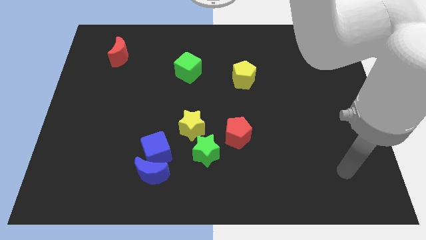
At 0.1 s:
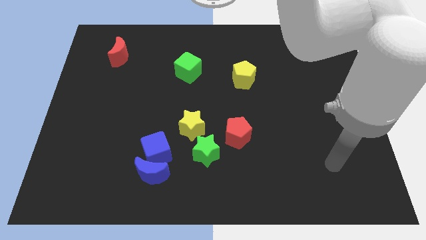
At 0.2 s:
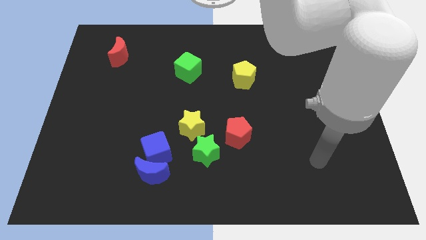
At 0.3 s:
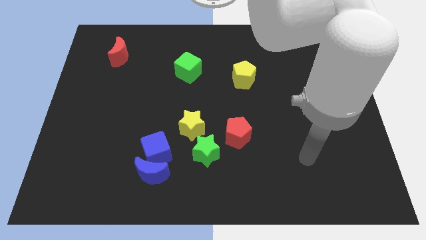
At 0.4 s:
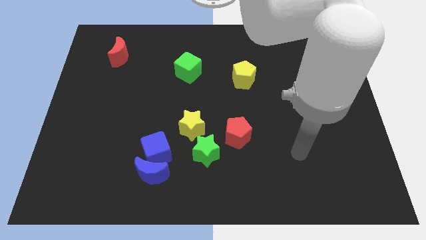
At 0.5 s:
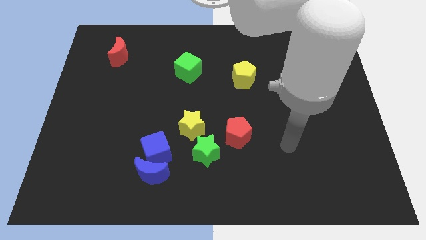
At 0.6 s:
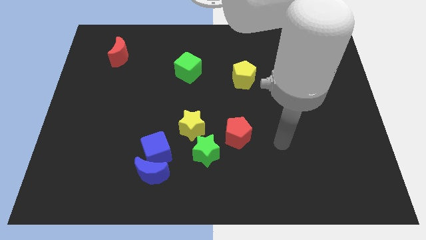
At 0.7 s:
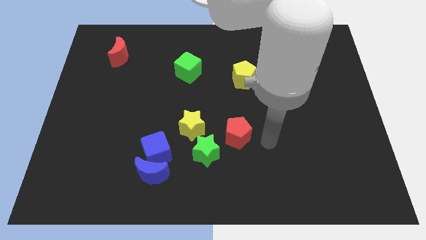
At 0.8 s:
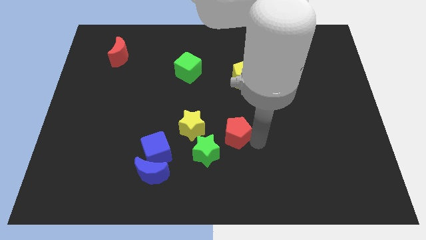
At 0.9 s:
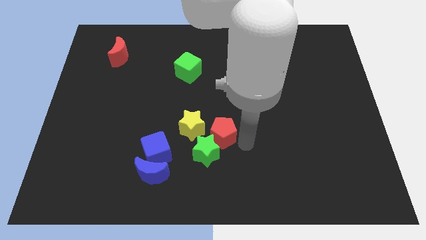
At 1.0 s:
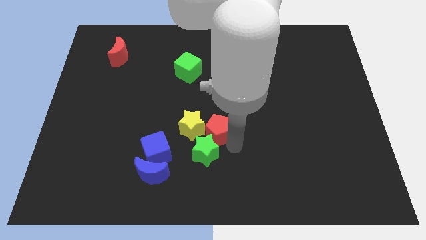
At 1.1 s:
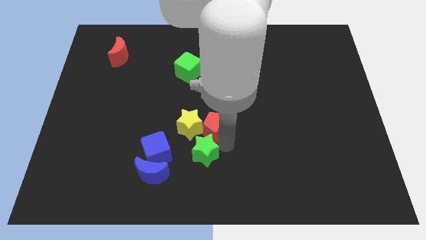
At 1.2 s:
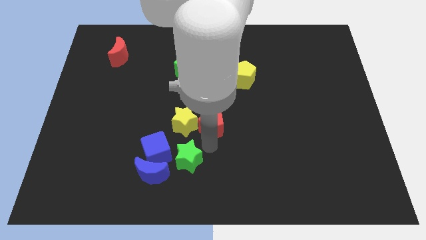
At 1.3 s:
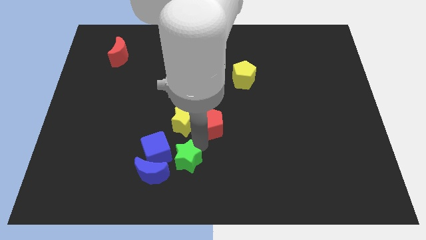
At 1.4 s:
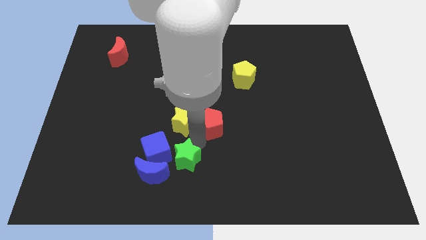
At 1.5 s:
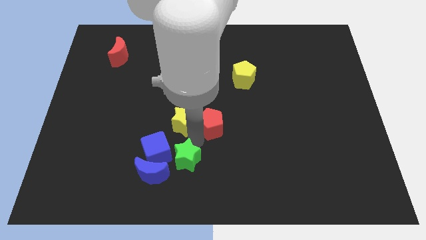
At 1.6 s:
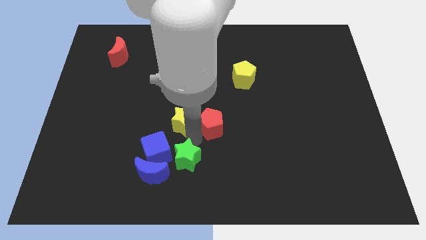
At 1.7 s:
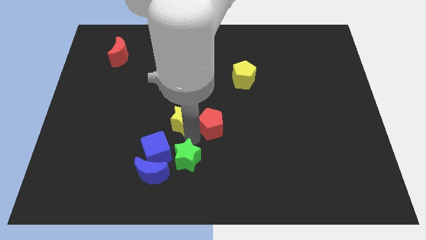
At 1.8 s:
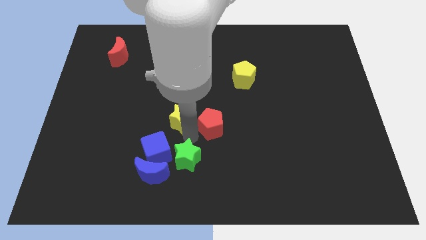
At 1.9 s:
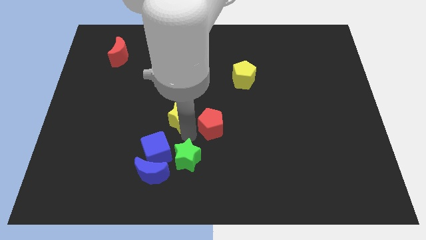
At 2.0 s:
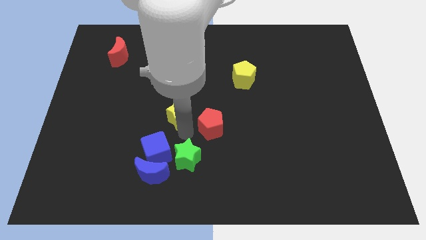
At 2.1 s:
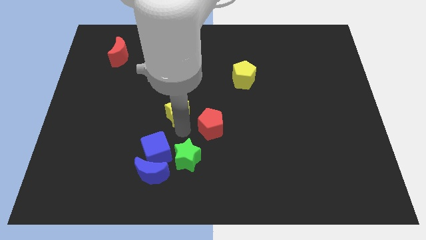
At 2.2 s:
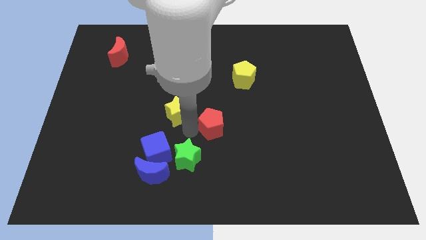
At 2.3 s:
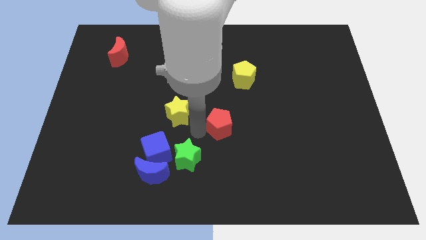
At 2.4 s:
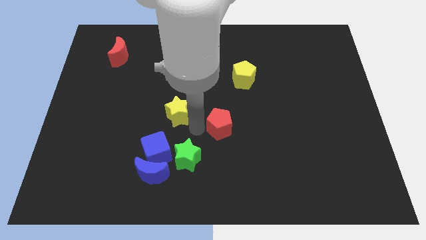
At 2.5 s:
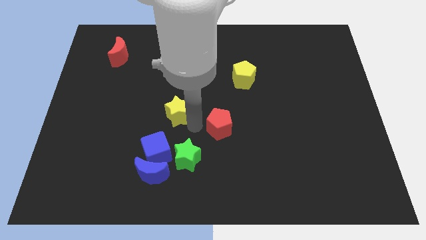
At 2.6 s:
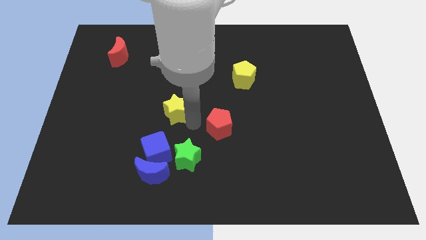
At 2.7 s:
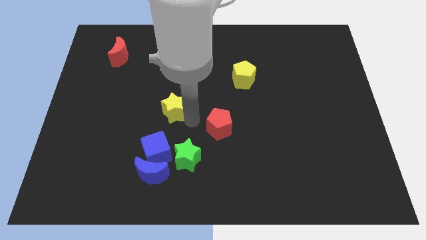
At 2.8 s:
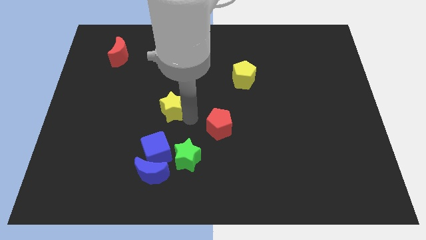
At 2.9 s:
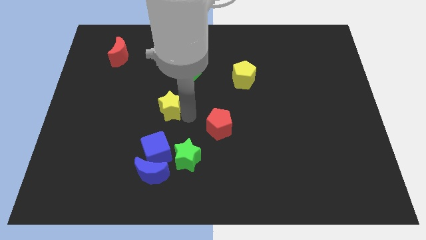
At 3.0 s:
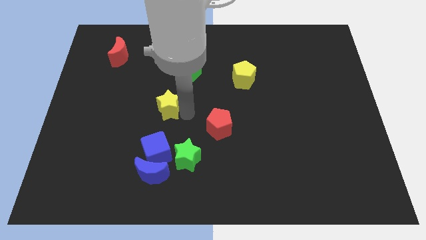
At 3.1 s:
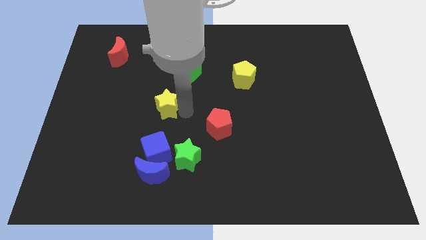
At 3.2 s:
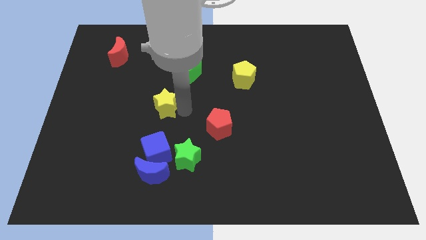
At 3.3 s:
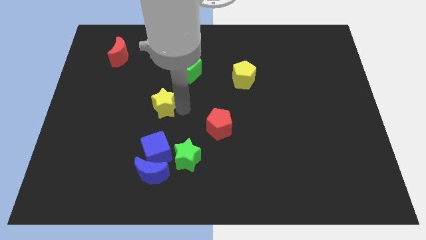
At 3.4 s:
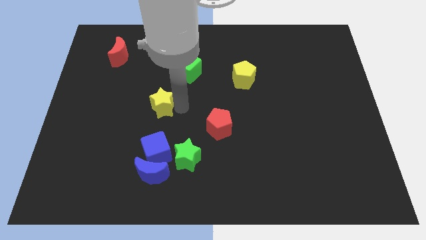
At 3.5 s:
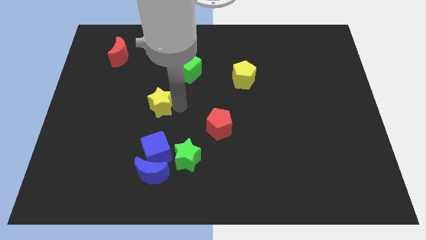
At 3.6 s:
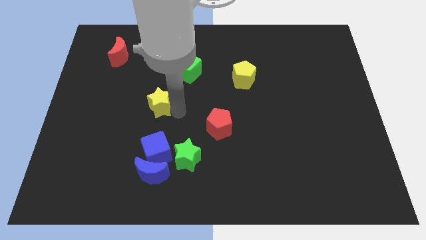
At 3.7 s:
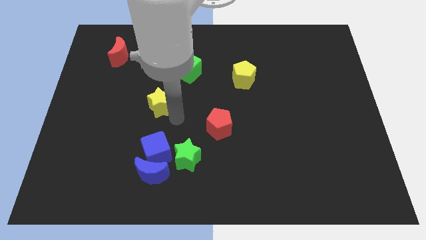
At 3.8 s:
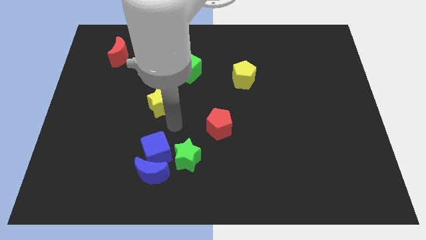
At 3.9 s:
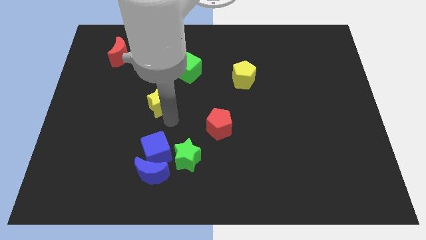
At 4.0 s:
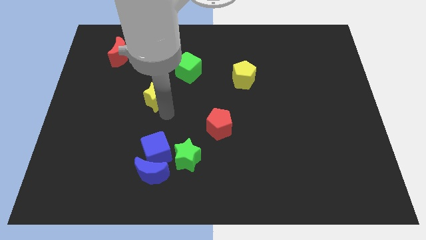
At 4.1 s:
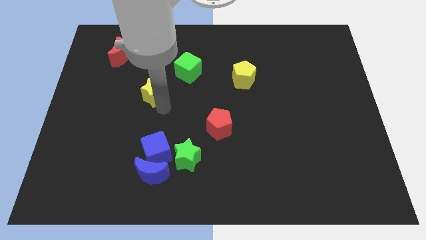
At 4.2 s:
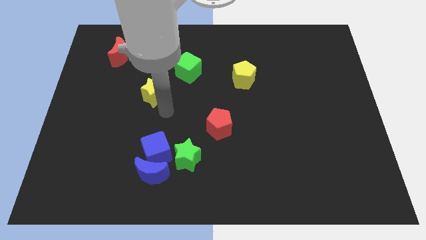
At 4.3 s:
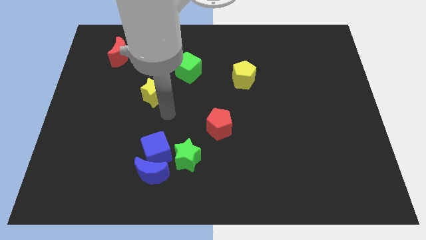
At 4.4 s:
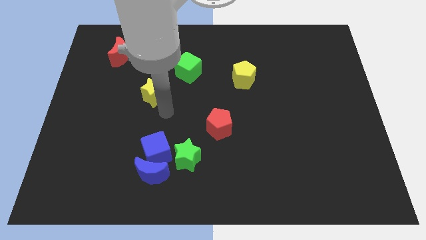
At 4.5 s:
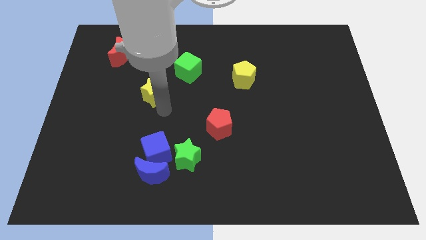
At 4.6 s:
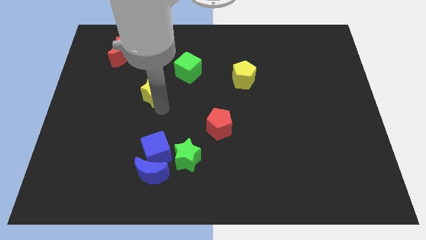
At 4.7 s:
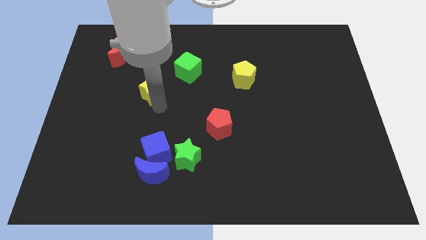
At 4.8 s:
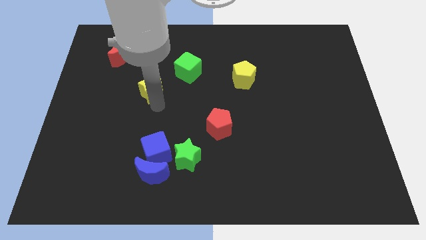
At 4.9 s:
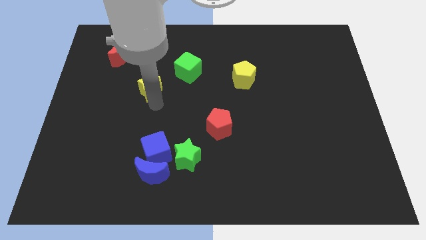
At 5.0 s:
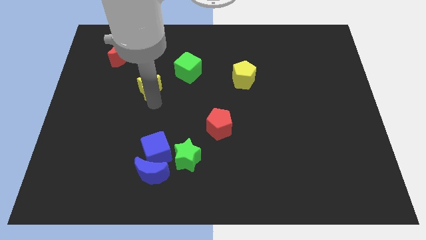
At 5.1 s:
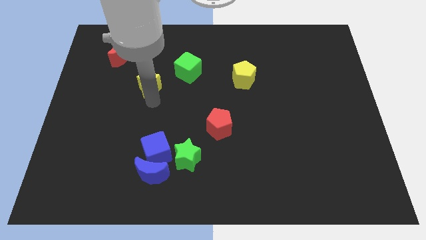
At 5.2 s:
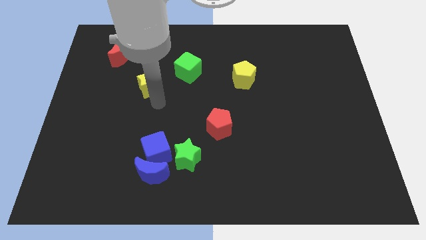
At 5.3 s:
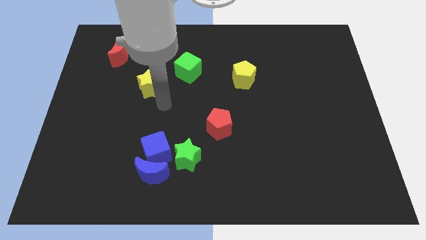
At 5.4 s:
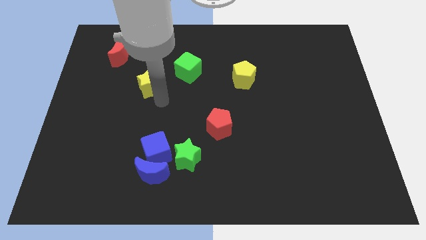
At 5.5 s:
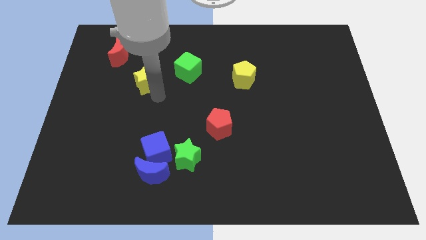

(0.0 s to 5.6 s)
put the yellow star diagonally down and to the right of the red moon

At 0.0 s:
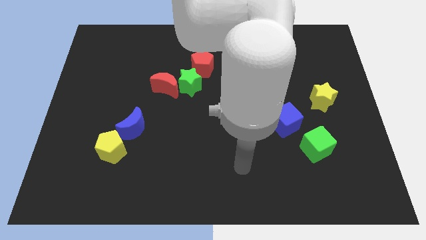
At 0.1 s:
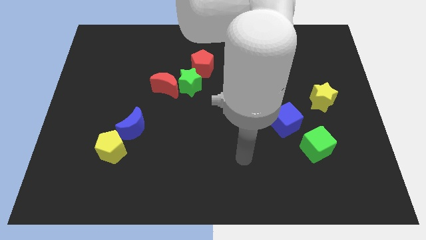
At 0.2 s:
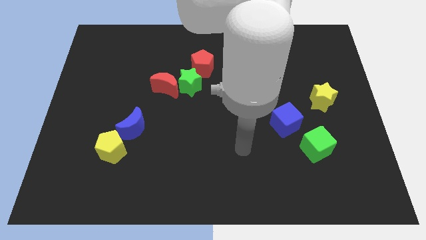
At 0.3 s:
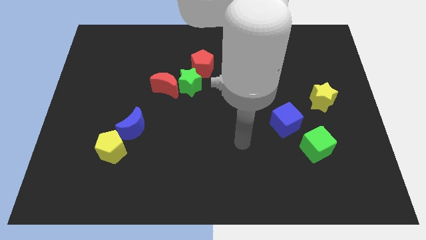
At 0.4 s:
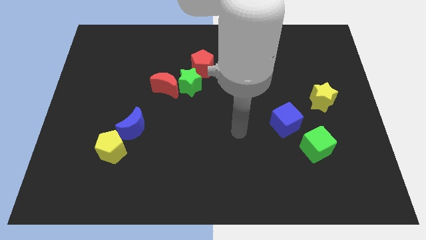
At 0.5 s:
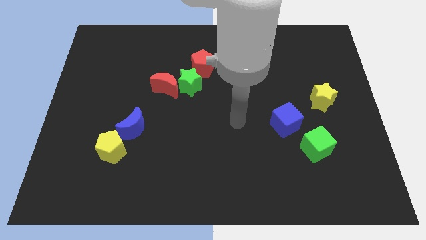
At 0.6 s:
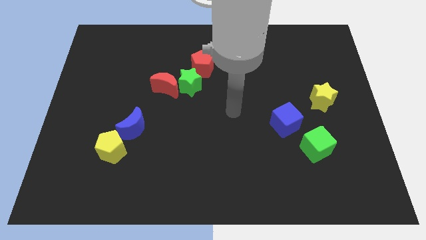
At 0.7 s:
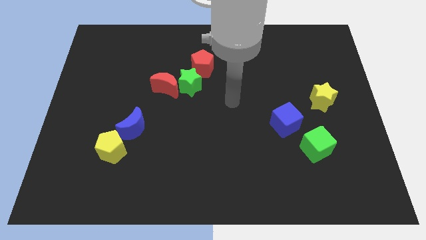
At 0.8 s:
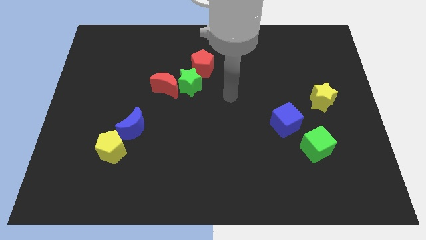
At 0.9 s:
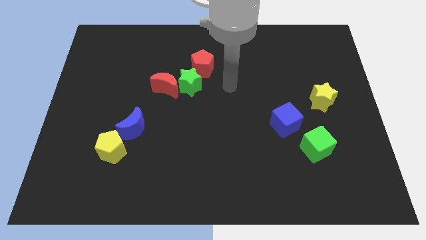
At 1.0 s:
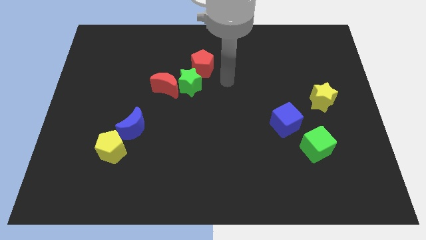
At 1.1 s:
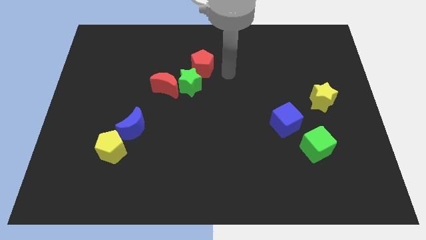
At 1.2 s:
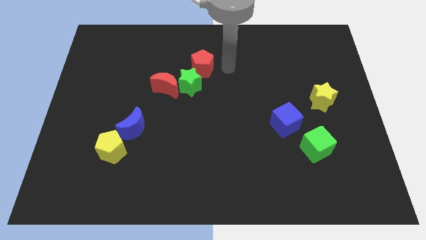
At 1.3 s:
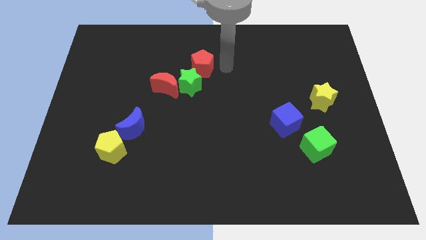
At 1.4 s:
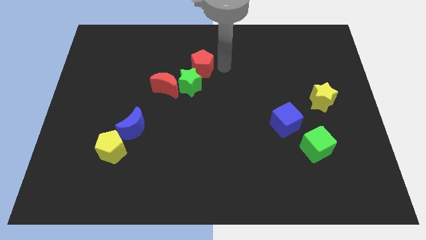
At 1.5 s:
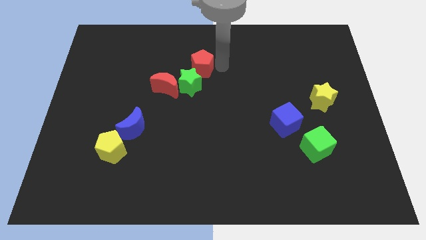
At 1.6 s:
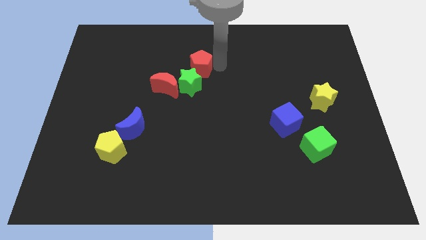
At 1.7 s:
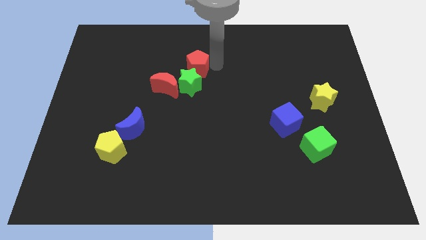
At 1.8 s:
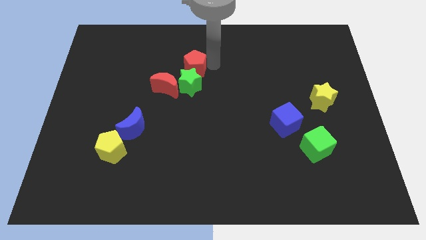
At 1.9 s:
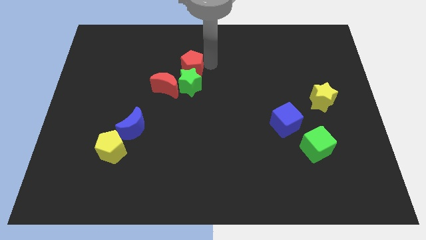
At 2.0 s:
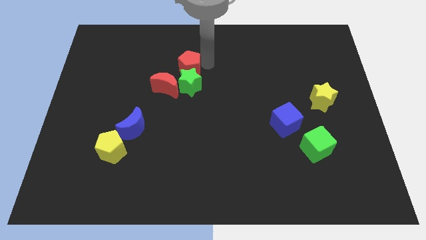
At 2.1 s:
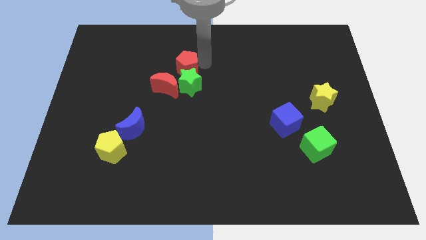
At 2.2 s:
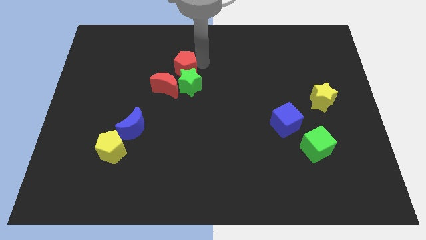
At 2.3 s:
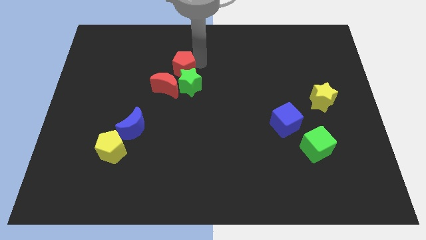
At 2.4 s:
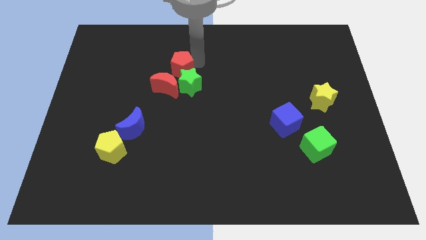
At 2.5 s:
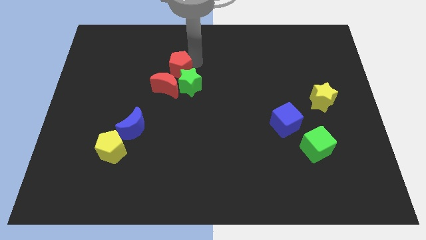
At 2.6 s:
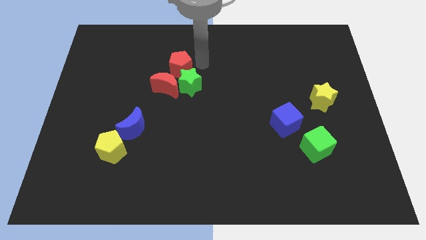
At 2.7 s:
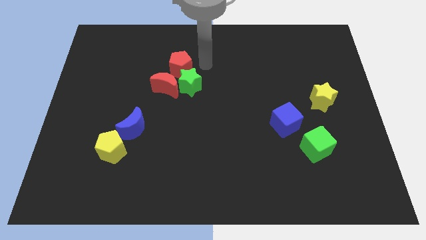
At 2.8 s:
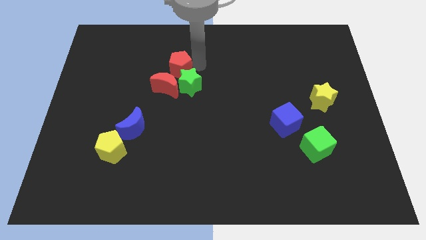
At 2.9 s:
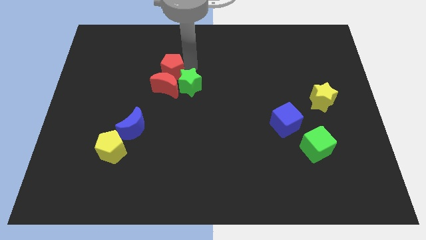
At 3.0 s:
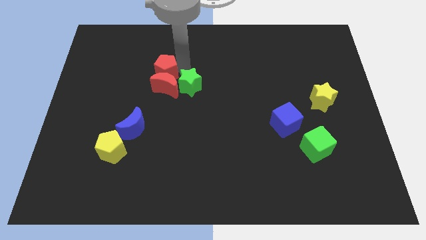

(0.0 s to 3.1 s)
move the red pentagon to the top left of the red moon
